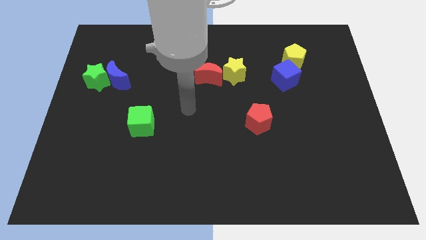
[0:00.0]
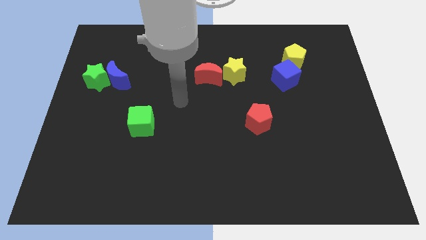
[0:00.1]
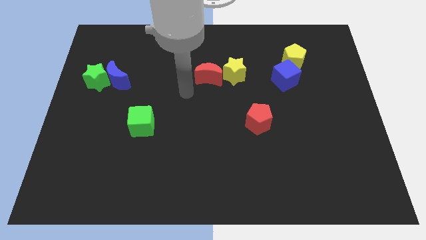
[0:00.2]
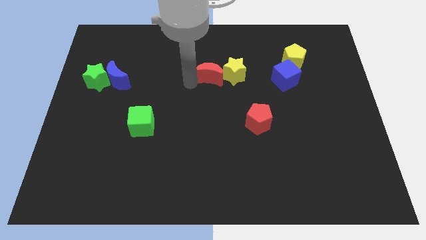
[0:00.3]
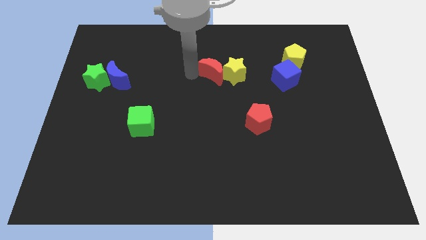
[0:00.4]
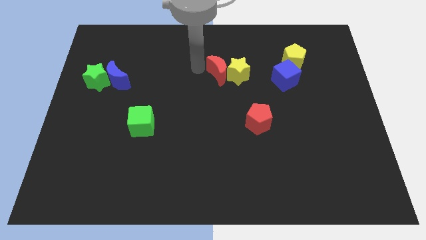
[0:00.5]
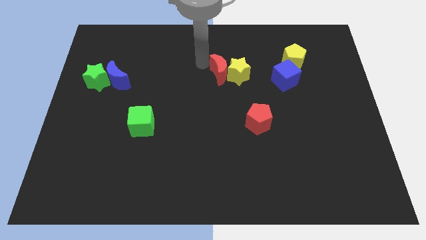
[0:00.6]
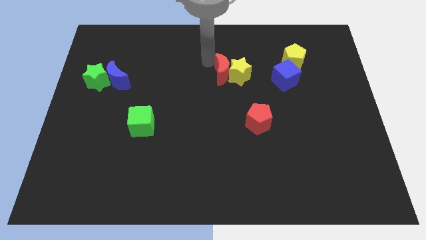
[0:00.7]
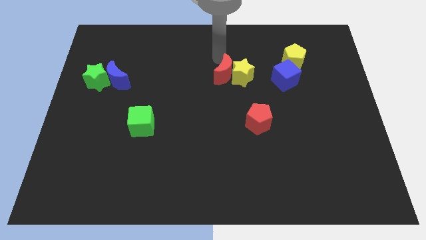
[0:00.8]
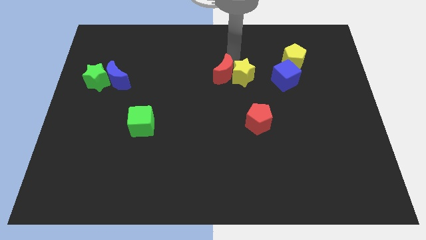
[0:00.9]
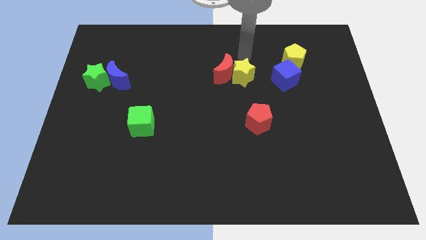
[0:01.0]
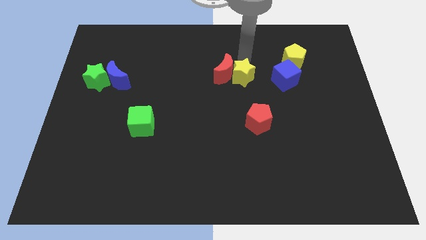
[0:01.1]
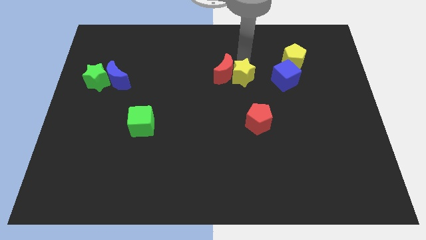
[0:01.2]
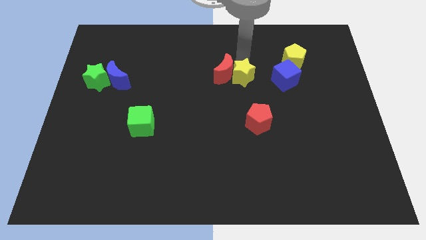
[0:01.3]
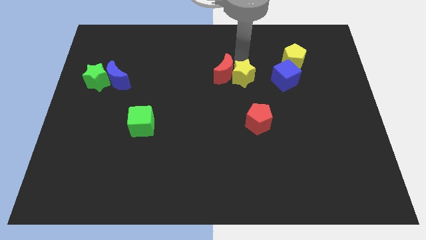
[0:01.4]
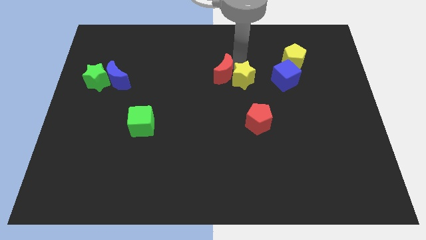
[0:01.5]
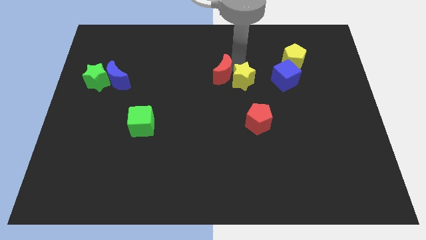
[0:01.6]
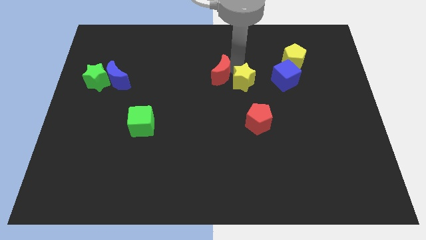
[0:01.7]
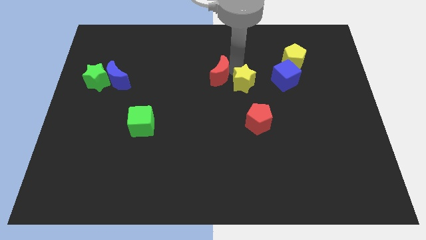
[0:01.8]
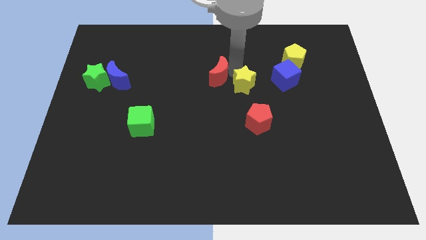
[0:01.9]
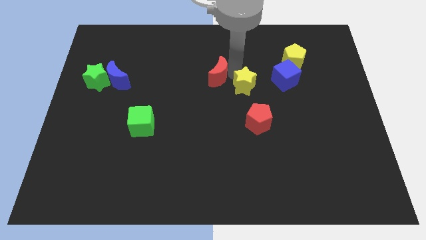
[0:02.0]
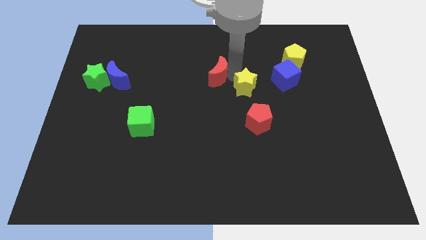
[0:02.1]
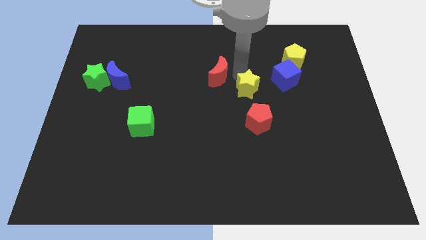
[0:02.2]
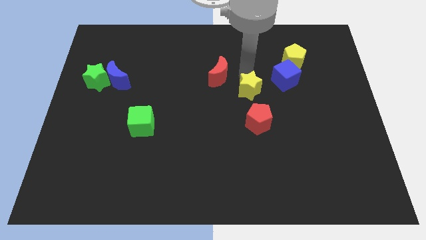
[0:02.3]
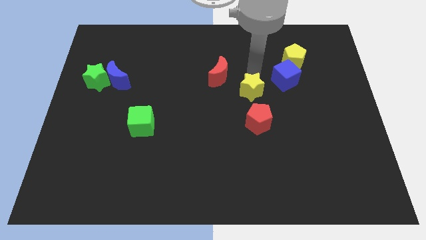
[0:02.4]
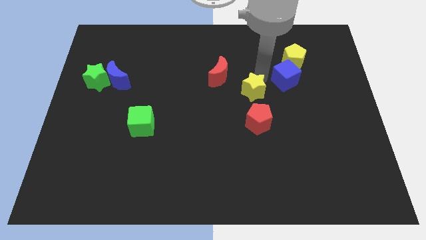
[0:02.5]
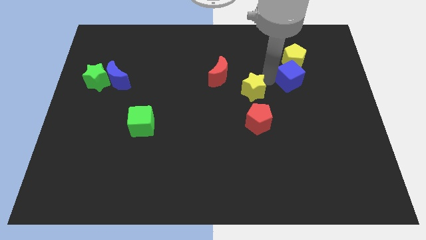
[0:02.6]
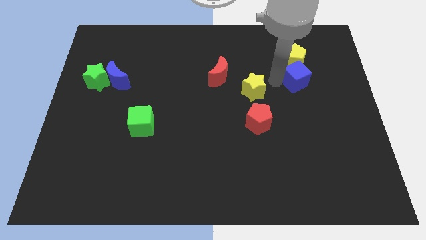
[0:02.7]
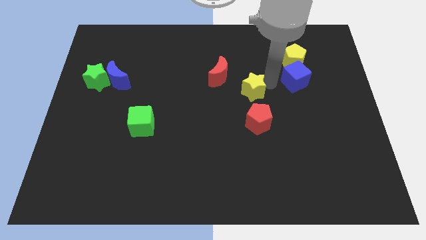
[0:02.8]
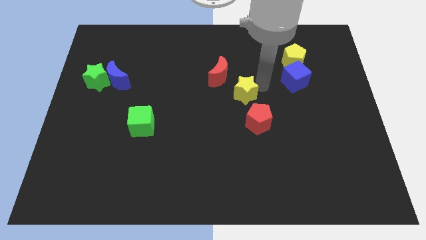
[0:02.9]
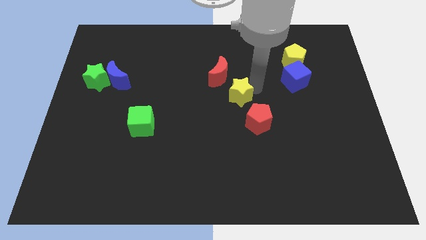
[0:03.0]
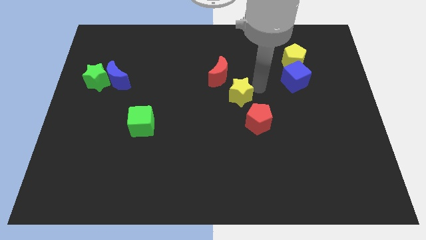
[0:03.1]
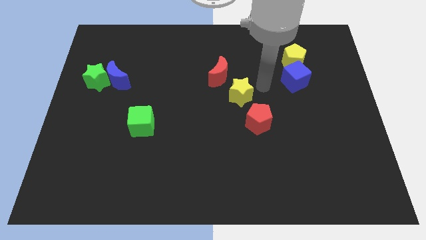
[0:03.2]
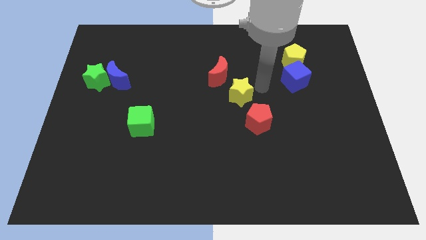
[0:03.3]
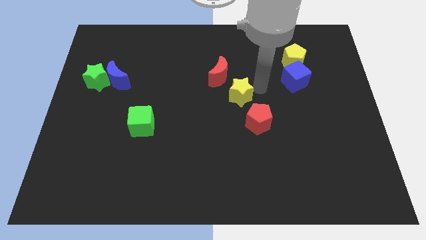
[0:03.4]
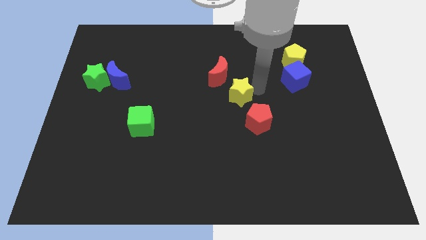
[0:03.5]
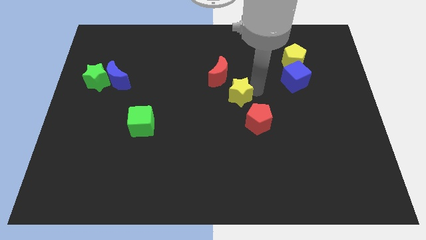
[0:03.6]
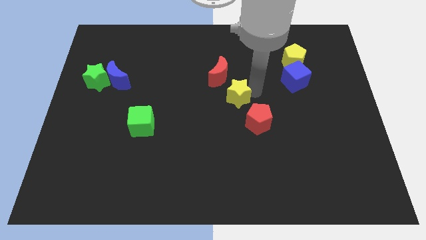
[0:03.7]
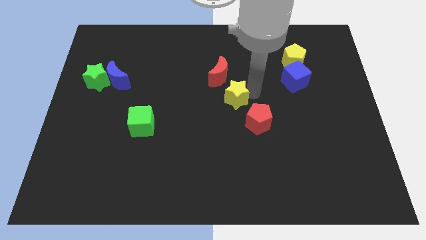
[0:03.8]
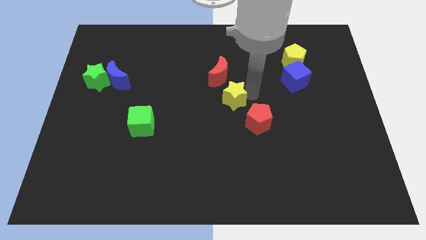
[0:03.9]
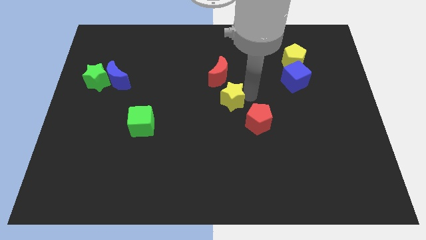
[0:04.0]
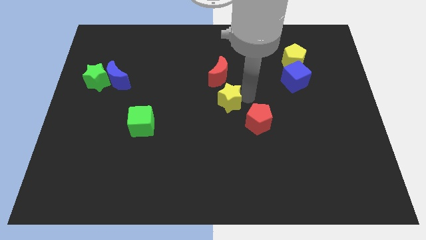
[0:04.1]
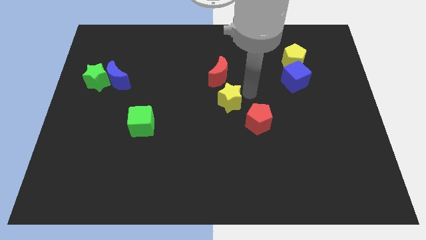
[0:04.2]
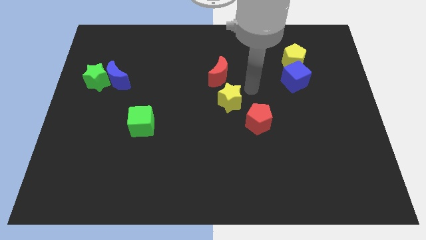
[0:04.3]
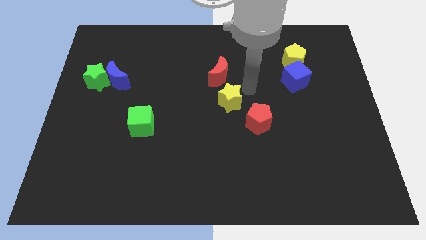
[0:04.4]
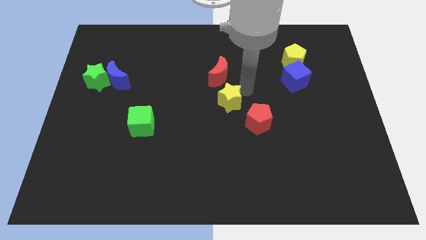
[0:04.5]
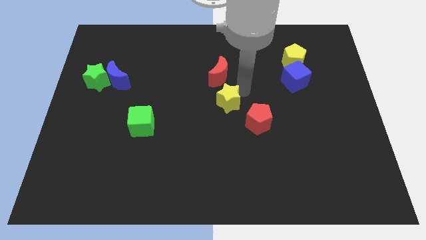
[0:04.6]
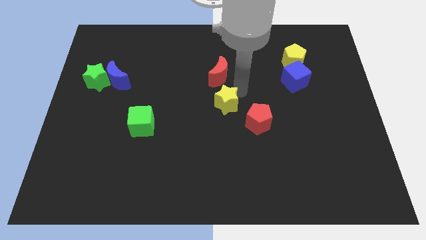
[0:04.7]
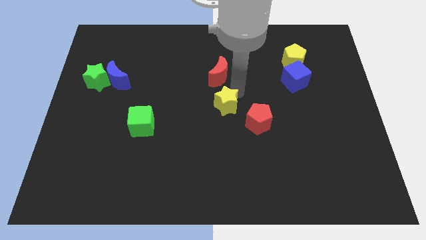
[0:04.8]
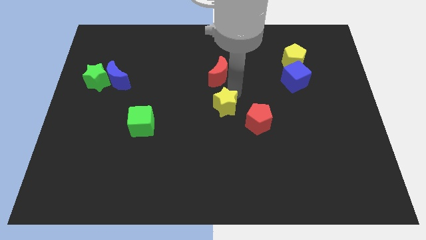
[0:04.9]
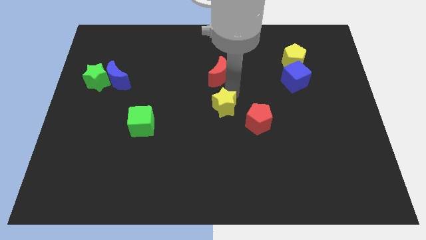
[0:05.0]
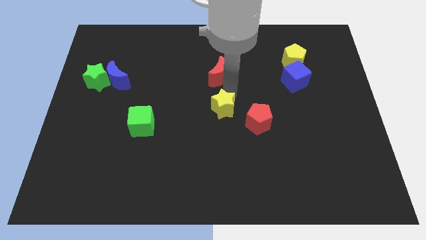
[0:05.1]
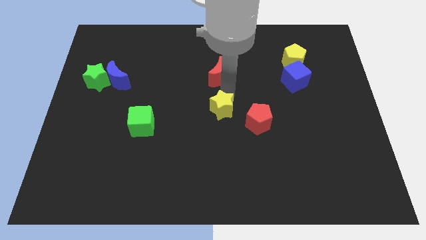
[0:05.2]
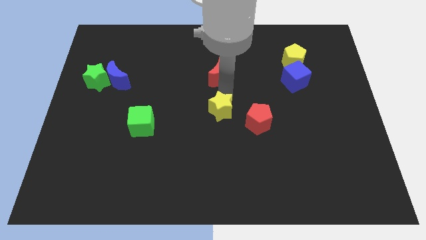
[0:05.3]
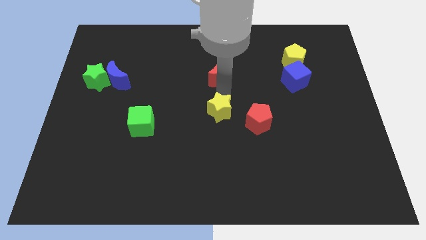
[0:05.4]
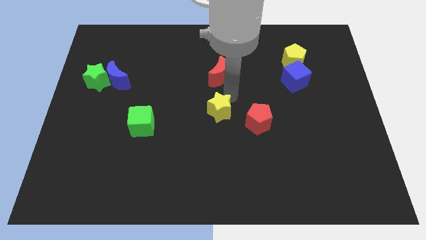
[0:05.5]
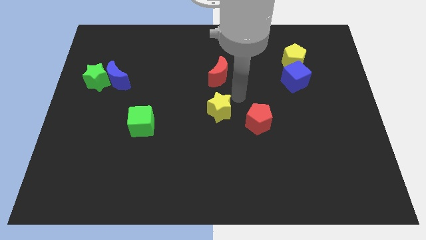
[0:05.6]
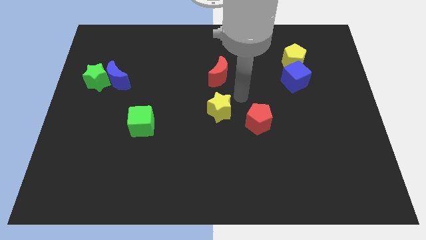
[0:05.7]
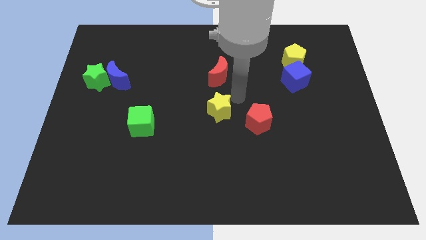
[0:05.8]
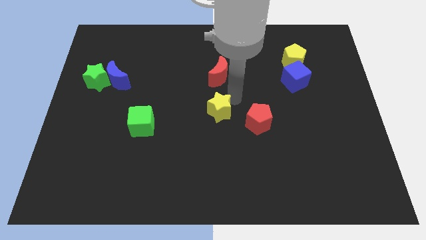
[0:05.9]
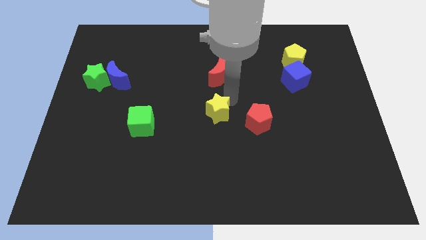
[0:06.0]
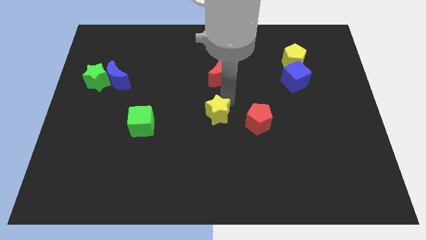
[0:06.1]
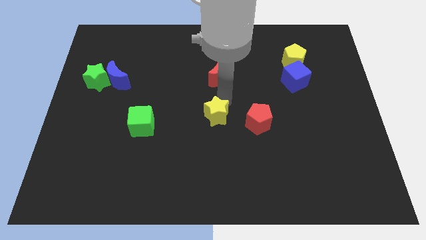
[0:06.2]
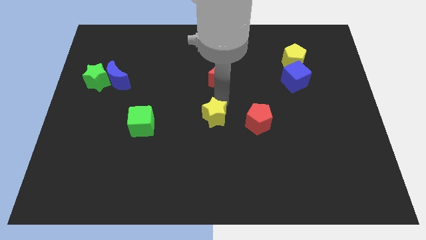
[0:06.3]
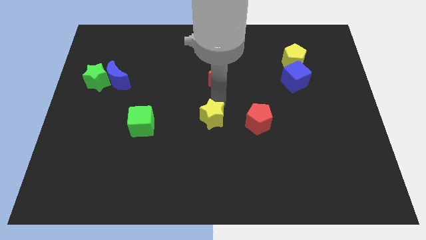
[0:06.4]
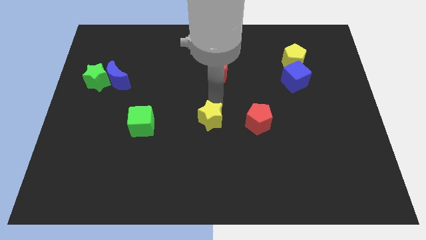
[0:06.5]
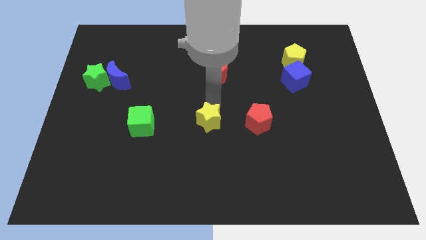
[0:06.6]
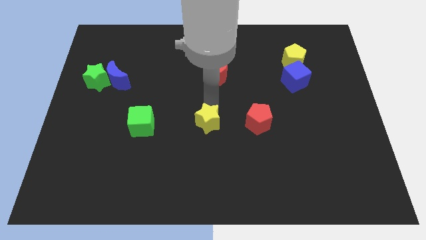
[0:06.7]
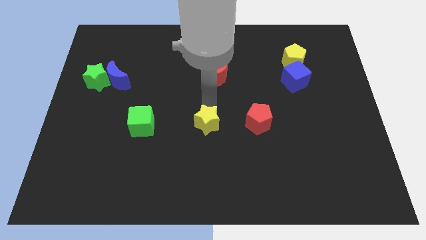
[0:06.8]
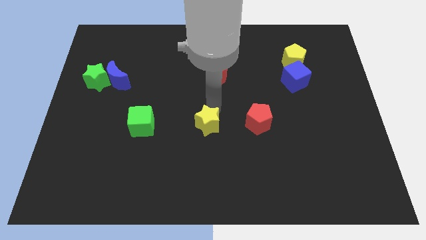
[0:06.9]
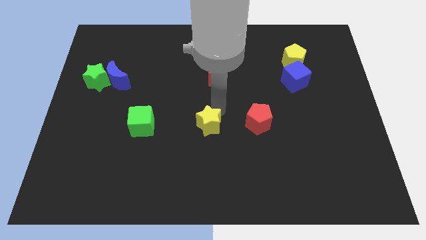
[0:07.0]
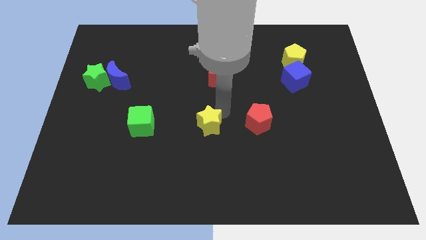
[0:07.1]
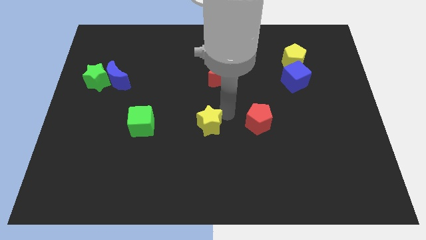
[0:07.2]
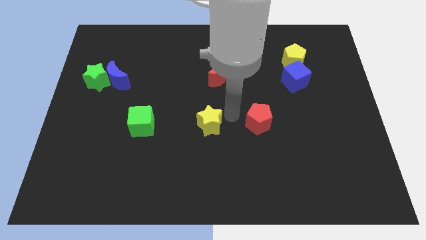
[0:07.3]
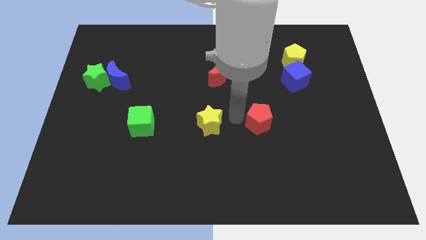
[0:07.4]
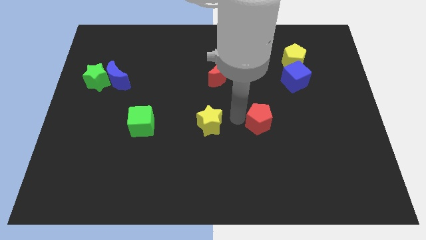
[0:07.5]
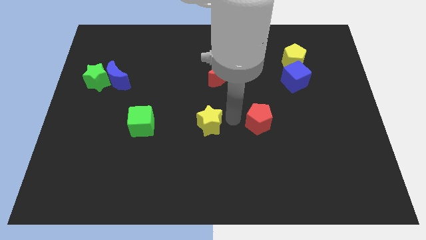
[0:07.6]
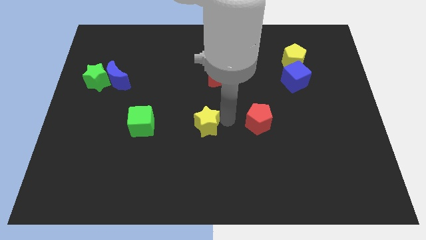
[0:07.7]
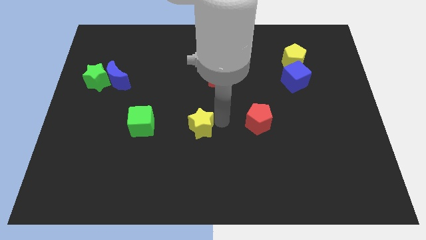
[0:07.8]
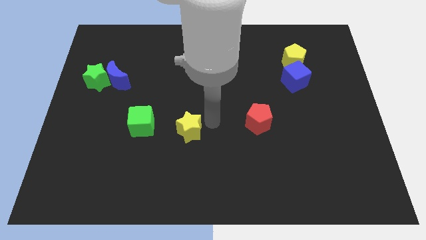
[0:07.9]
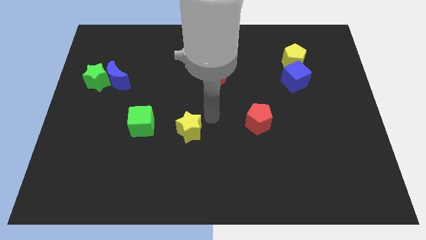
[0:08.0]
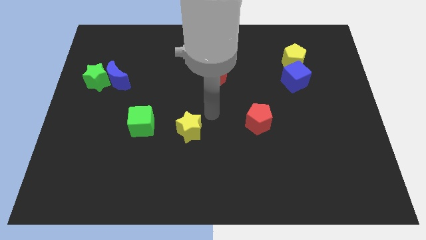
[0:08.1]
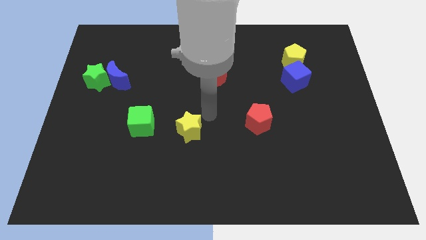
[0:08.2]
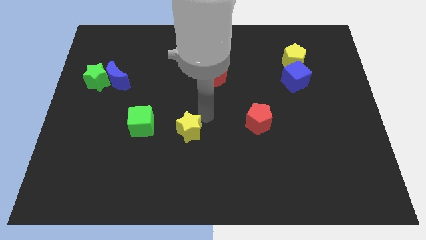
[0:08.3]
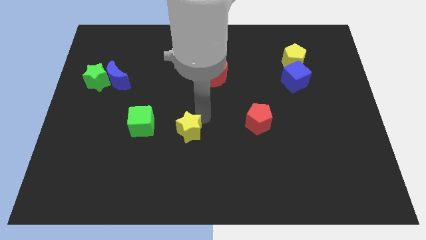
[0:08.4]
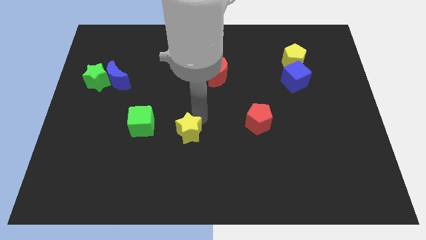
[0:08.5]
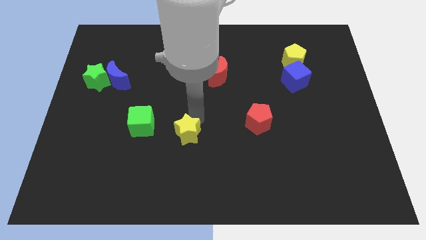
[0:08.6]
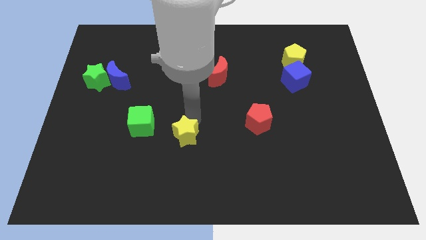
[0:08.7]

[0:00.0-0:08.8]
slide the yellow star downwards and then left
